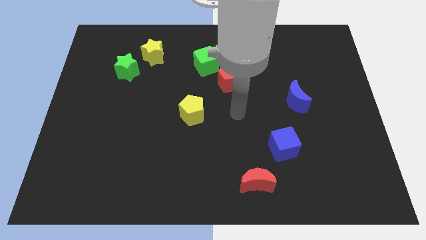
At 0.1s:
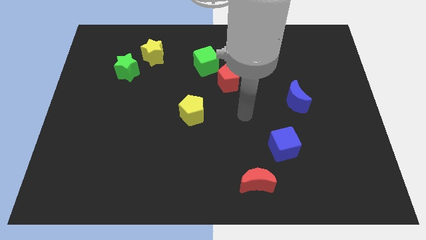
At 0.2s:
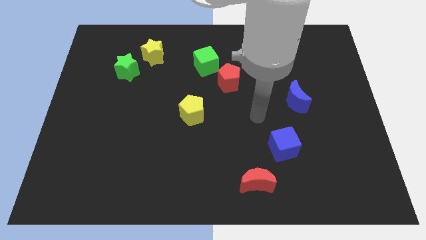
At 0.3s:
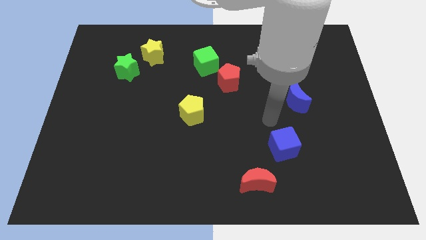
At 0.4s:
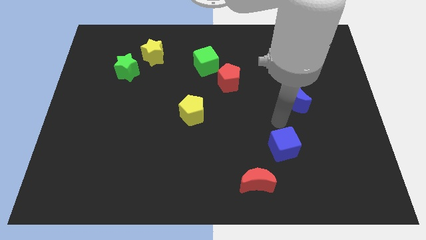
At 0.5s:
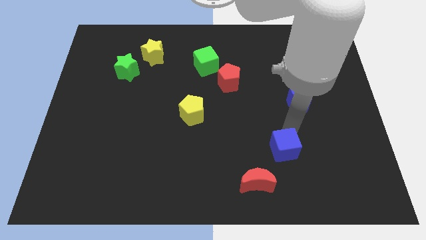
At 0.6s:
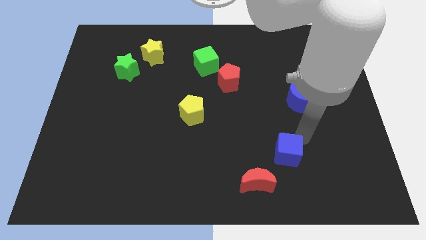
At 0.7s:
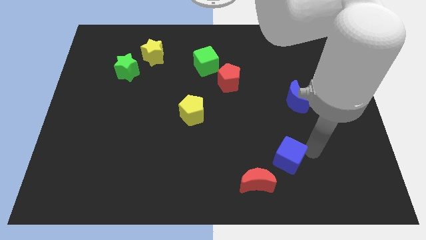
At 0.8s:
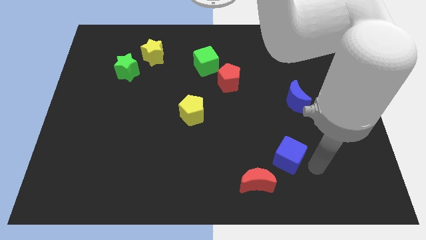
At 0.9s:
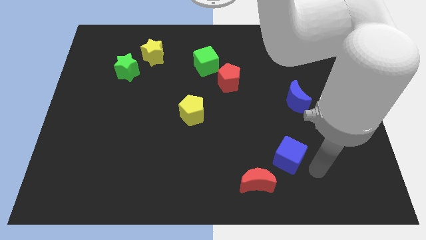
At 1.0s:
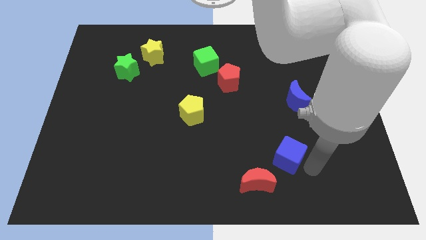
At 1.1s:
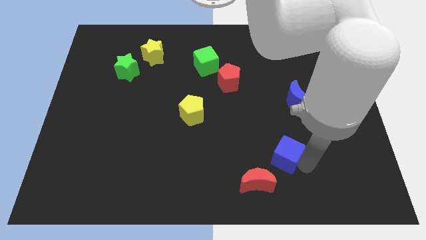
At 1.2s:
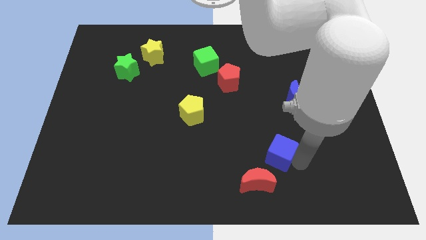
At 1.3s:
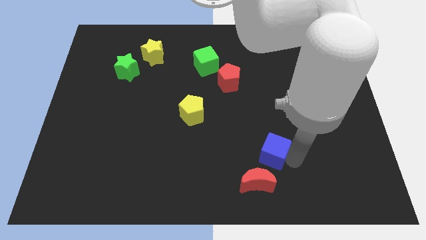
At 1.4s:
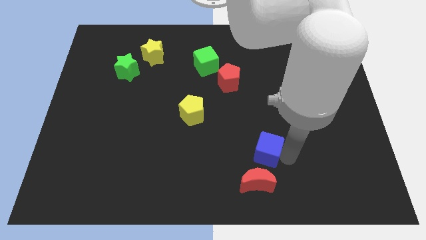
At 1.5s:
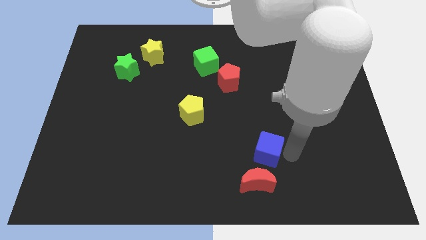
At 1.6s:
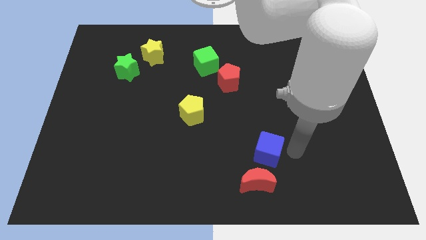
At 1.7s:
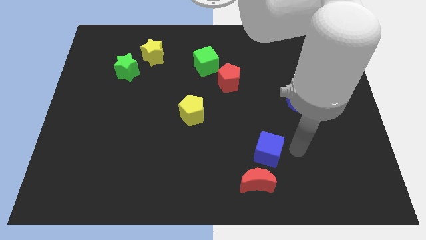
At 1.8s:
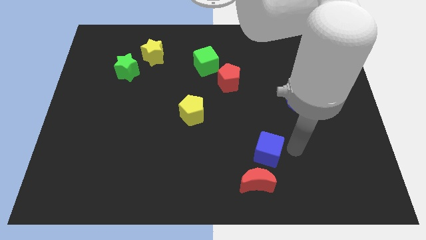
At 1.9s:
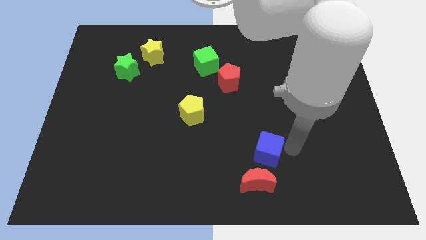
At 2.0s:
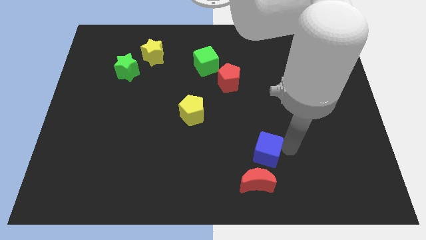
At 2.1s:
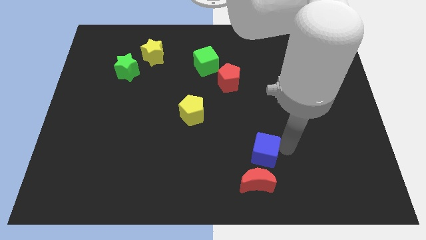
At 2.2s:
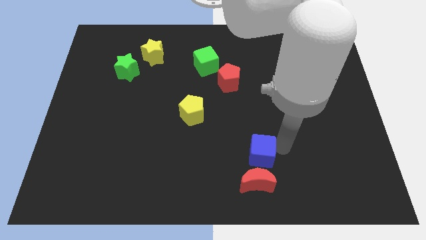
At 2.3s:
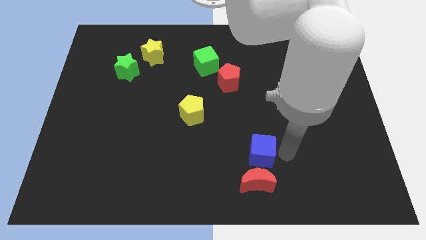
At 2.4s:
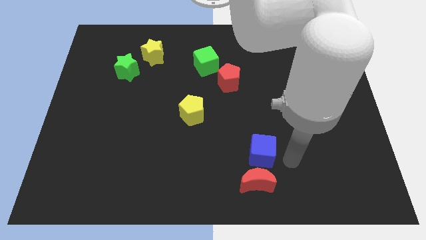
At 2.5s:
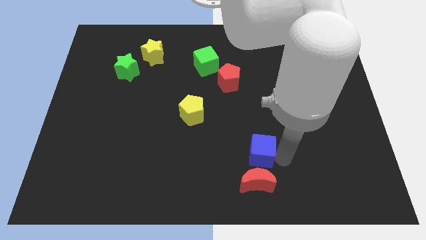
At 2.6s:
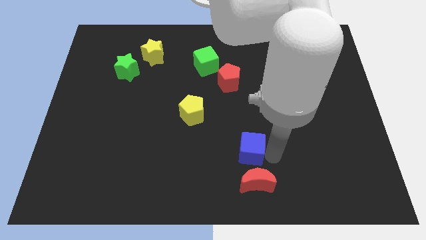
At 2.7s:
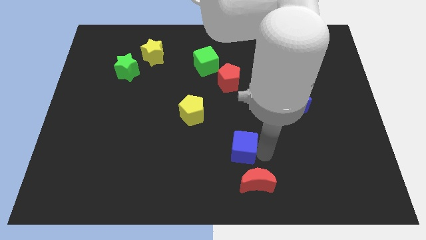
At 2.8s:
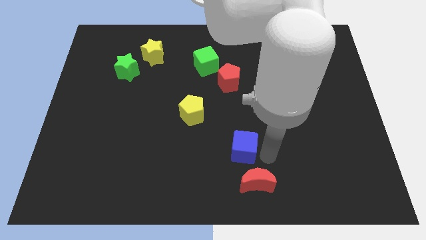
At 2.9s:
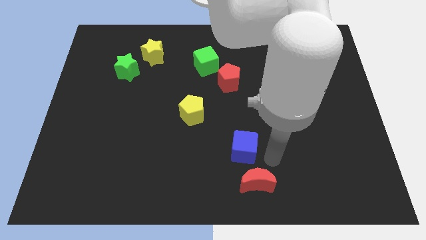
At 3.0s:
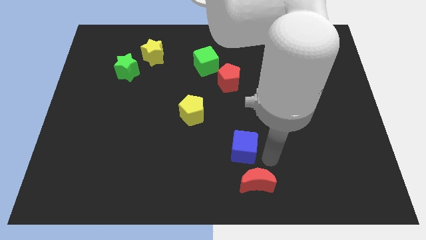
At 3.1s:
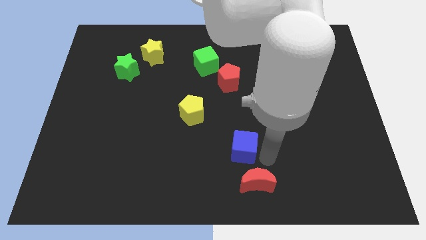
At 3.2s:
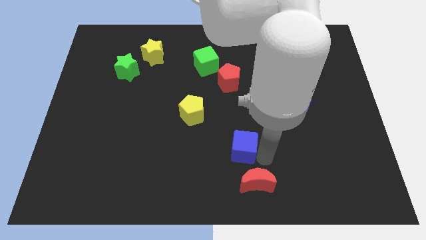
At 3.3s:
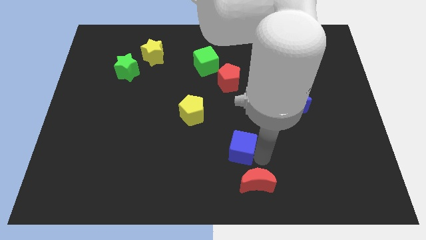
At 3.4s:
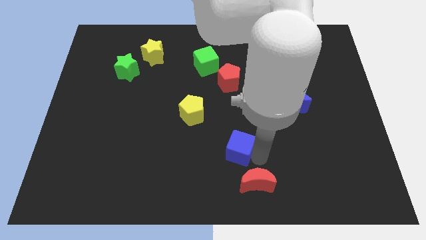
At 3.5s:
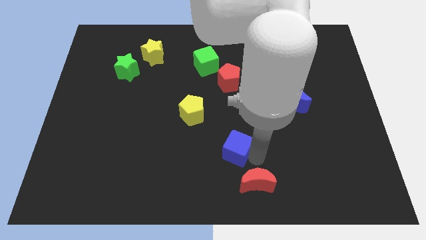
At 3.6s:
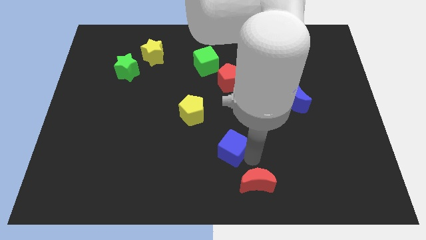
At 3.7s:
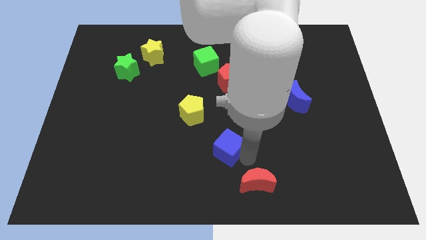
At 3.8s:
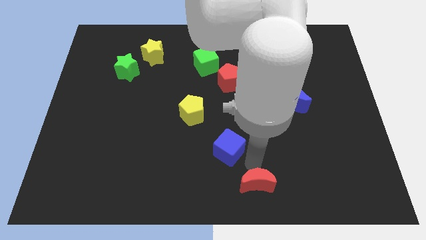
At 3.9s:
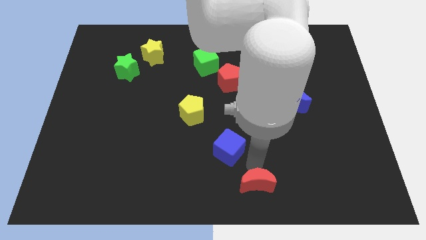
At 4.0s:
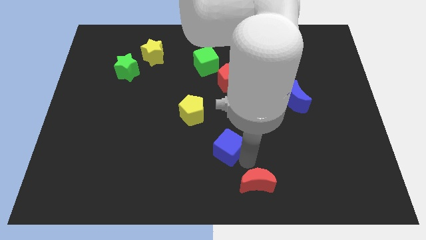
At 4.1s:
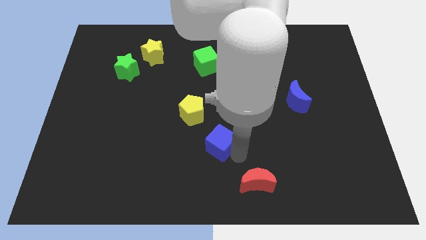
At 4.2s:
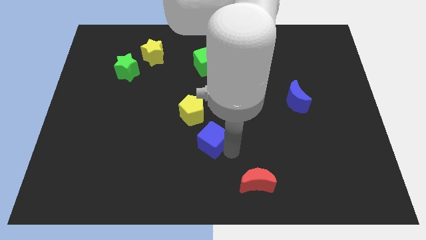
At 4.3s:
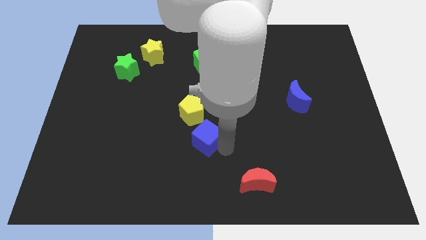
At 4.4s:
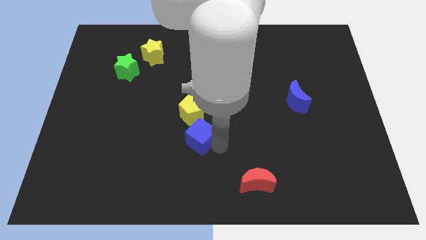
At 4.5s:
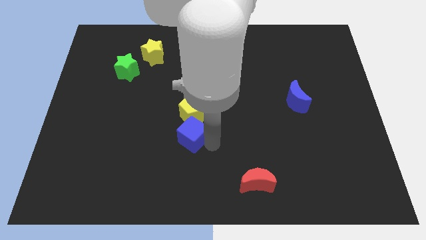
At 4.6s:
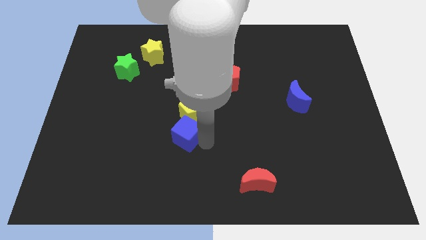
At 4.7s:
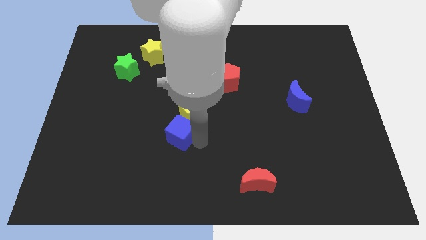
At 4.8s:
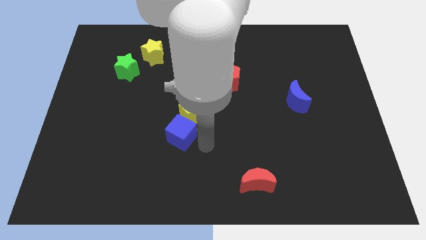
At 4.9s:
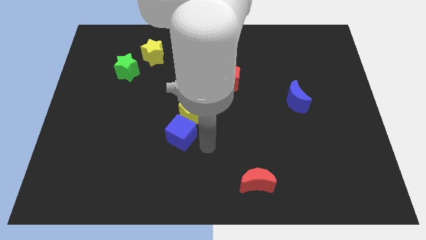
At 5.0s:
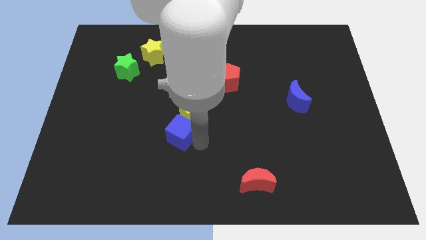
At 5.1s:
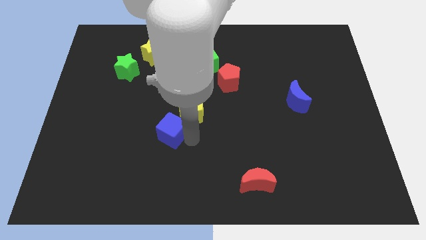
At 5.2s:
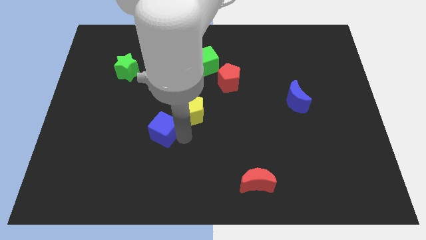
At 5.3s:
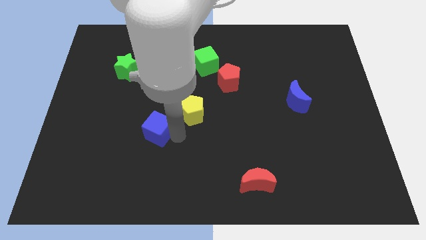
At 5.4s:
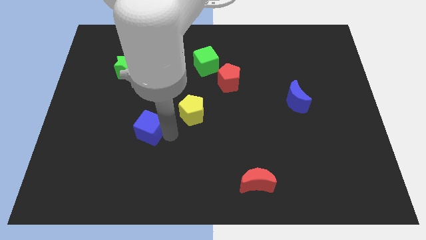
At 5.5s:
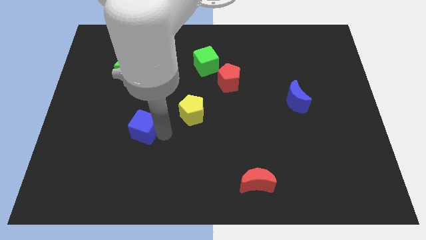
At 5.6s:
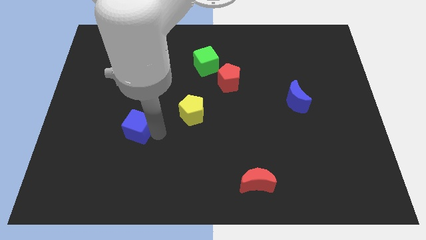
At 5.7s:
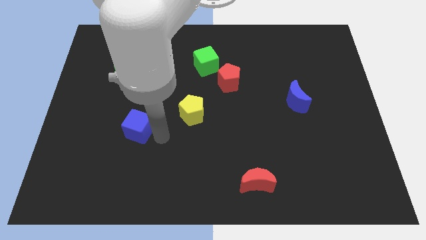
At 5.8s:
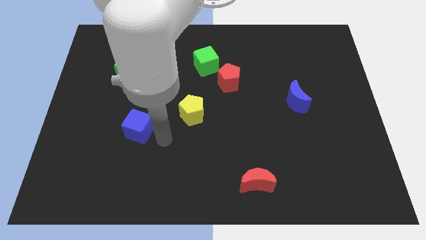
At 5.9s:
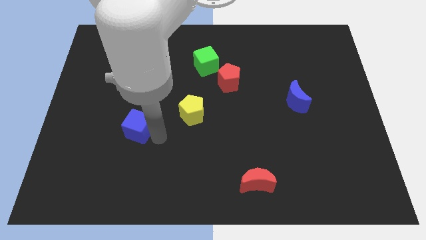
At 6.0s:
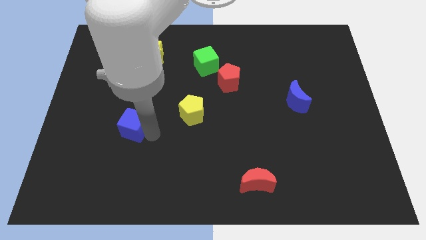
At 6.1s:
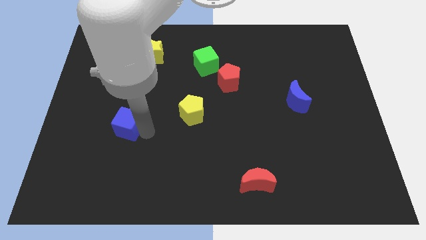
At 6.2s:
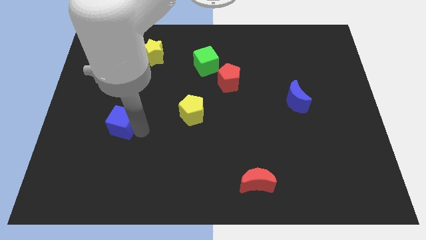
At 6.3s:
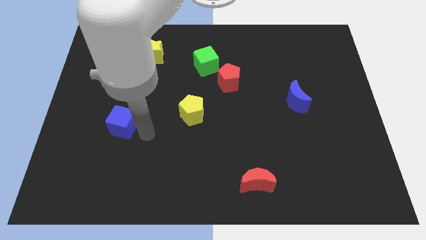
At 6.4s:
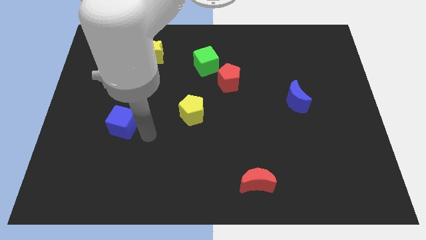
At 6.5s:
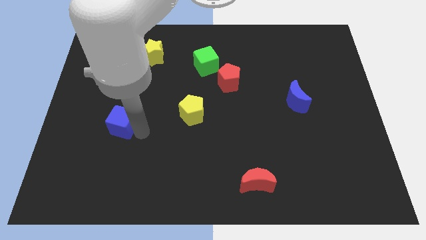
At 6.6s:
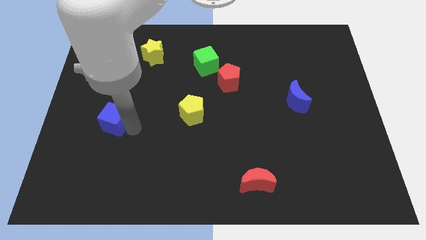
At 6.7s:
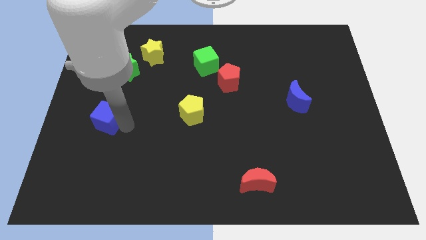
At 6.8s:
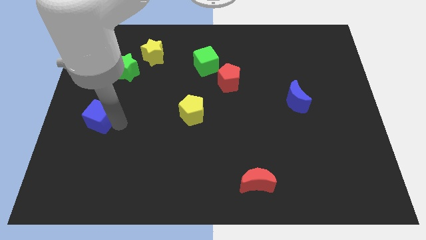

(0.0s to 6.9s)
move the blue cube to the left side of the board
